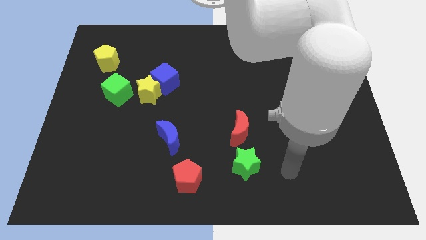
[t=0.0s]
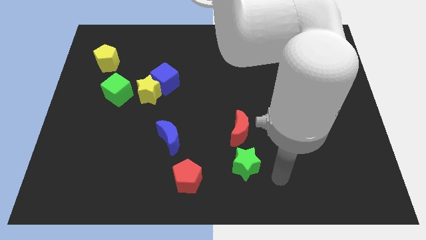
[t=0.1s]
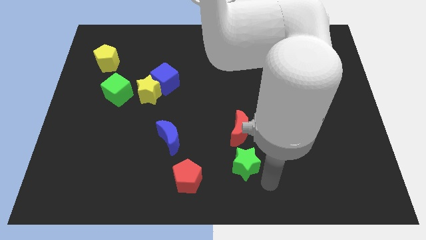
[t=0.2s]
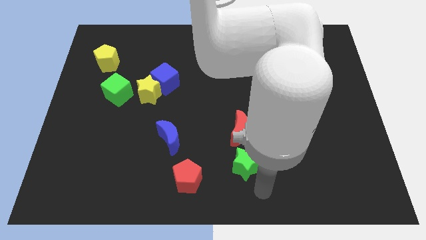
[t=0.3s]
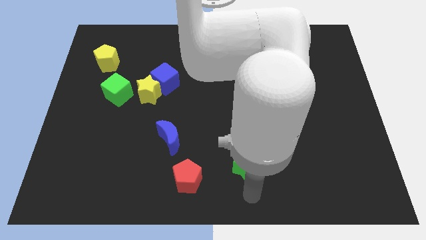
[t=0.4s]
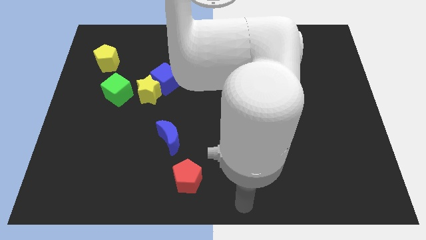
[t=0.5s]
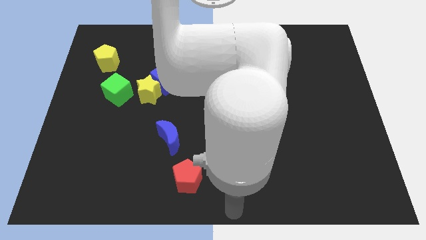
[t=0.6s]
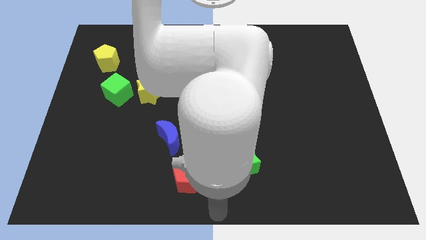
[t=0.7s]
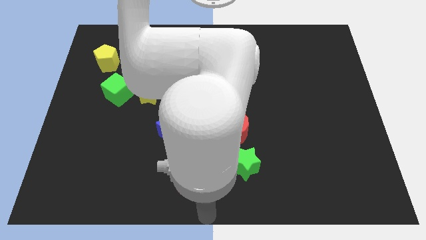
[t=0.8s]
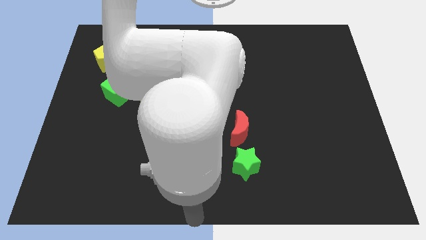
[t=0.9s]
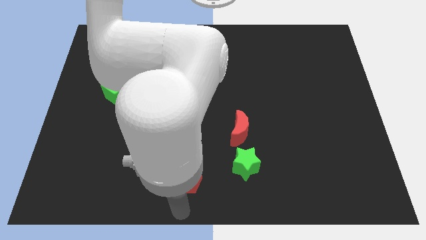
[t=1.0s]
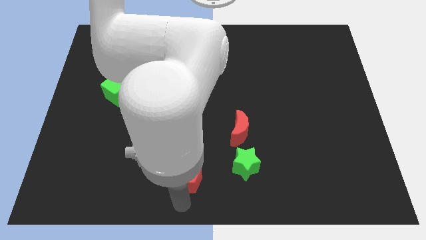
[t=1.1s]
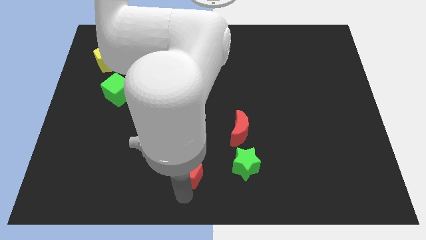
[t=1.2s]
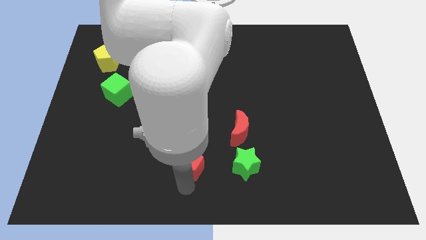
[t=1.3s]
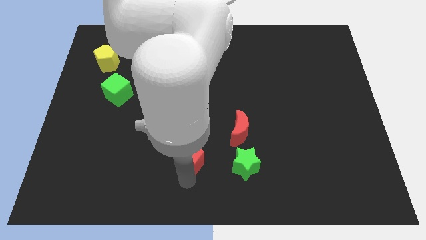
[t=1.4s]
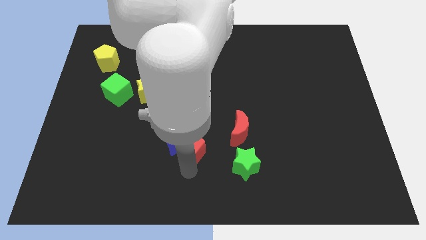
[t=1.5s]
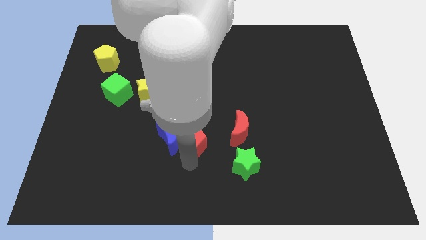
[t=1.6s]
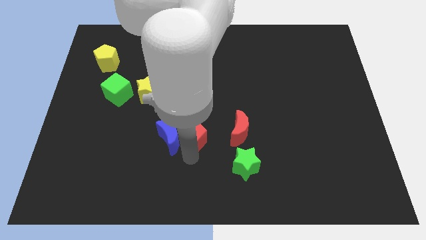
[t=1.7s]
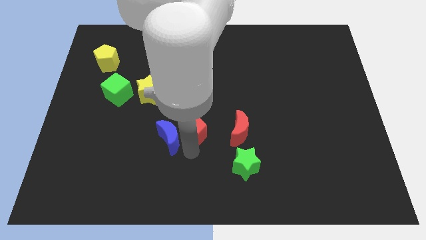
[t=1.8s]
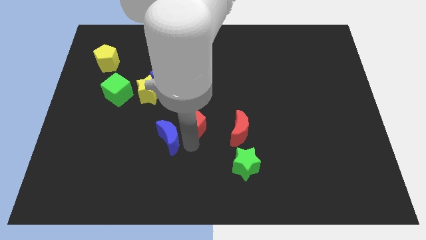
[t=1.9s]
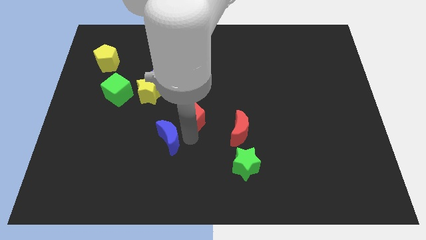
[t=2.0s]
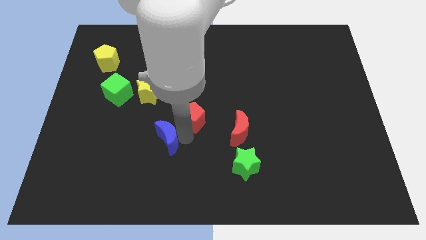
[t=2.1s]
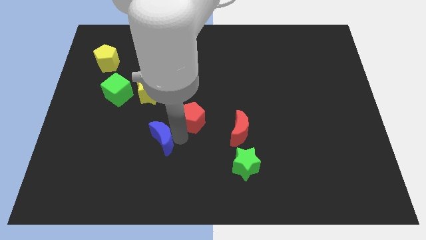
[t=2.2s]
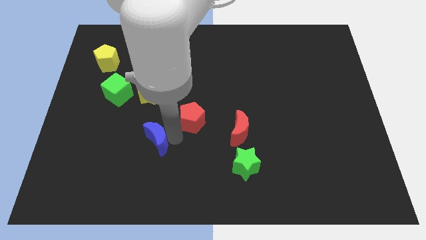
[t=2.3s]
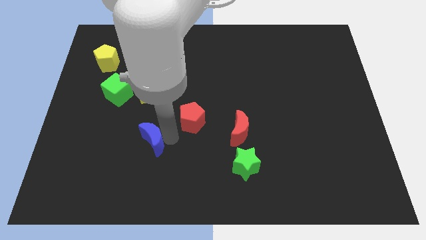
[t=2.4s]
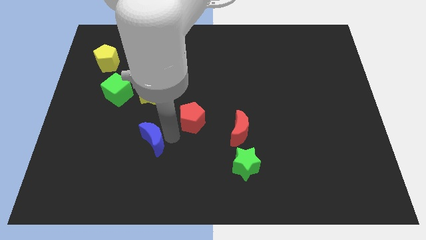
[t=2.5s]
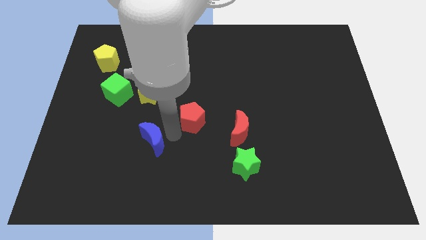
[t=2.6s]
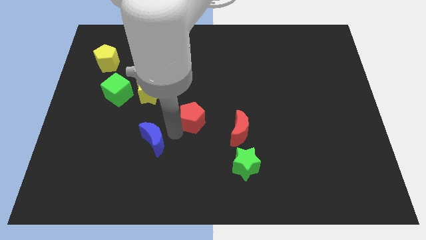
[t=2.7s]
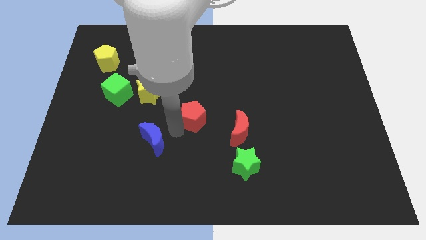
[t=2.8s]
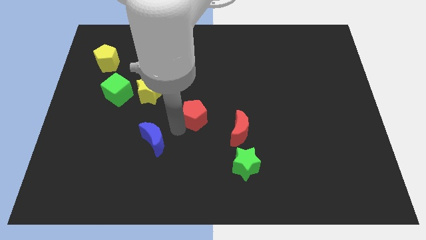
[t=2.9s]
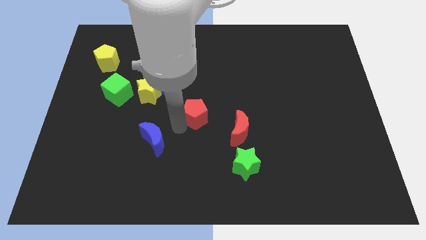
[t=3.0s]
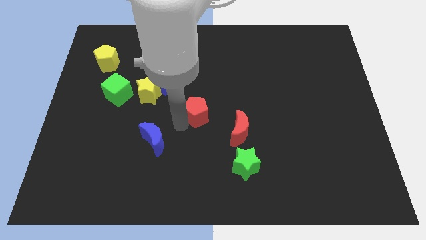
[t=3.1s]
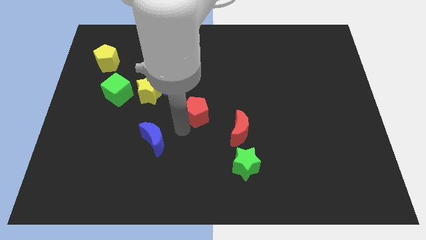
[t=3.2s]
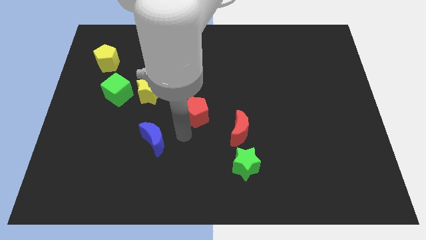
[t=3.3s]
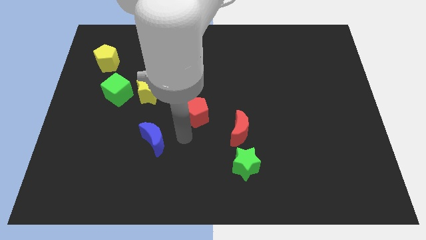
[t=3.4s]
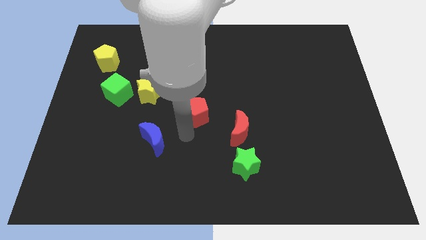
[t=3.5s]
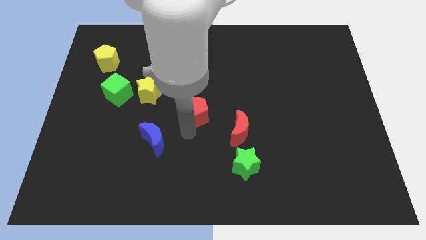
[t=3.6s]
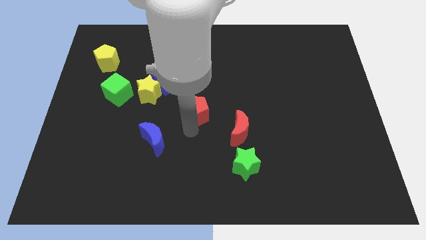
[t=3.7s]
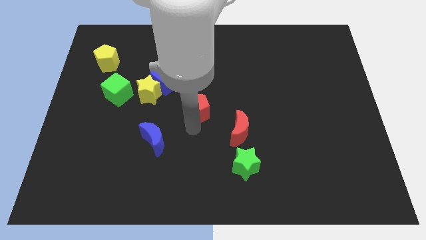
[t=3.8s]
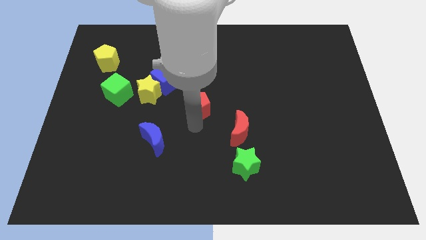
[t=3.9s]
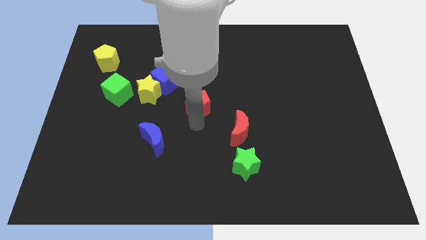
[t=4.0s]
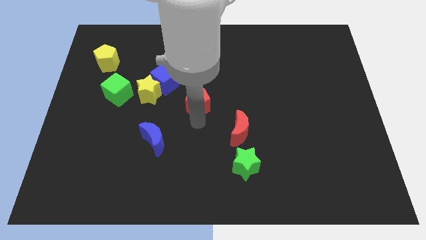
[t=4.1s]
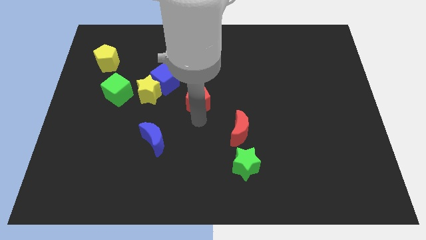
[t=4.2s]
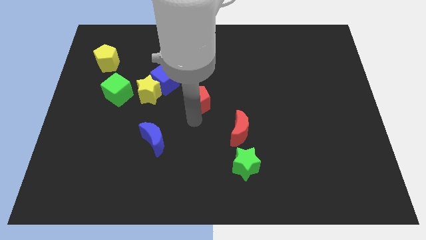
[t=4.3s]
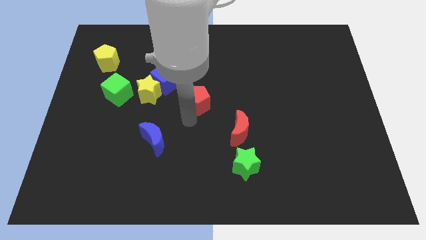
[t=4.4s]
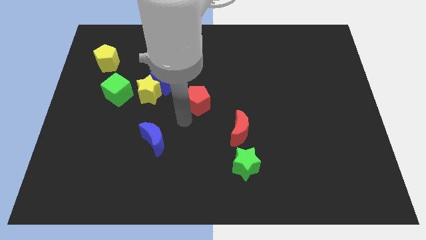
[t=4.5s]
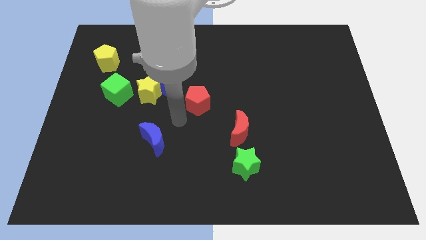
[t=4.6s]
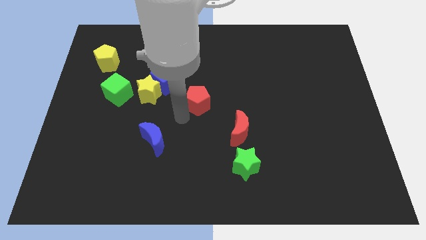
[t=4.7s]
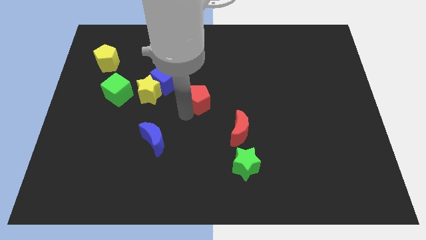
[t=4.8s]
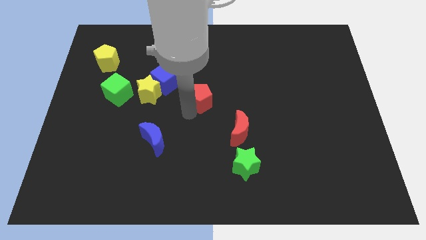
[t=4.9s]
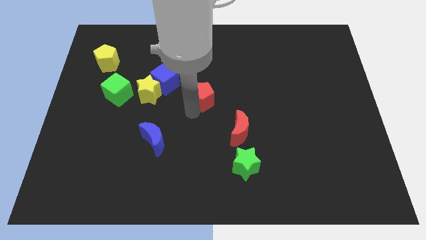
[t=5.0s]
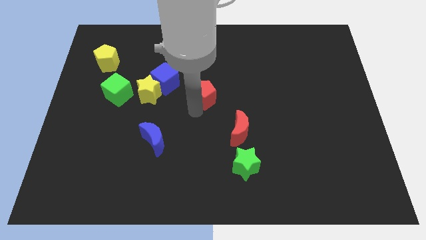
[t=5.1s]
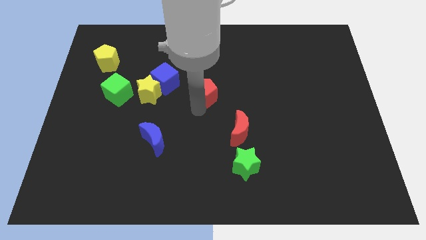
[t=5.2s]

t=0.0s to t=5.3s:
slide the red pentagon just right of the blue cube

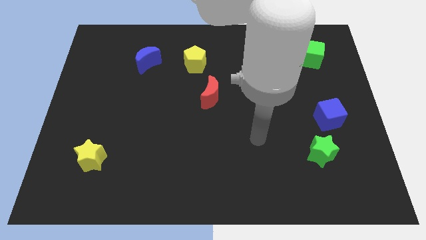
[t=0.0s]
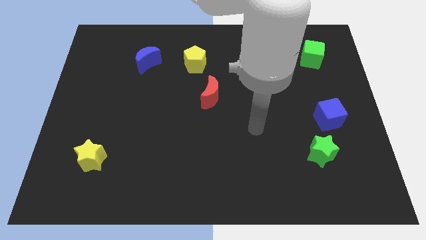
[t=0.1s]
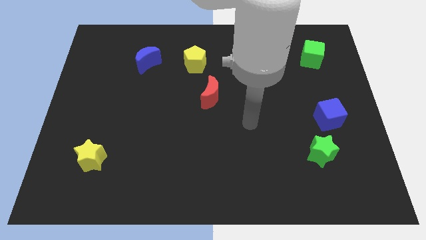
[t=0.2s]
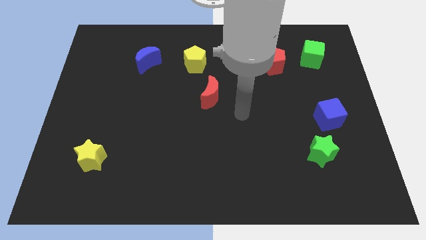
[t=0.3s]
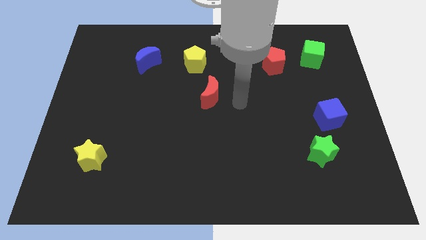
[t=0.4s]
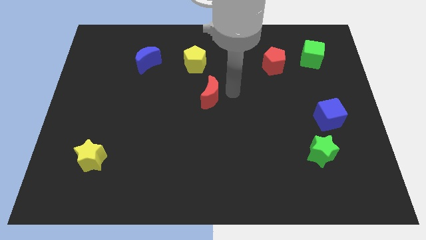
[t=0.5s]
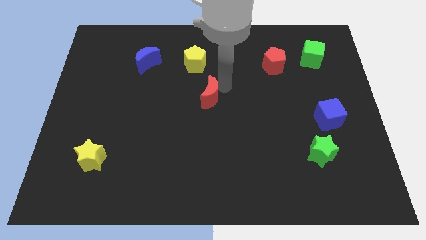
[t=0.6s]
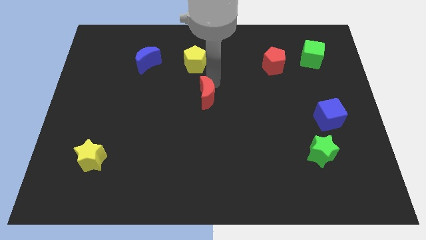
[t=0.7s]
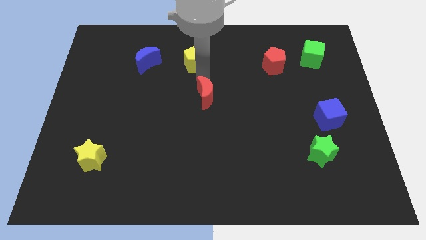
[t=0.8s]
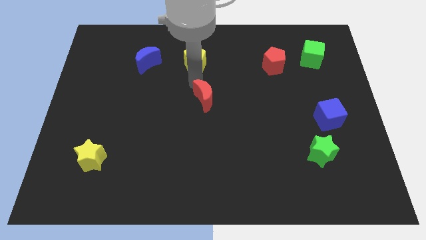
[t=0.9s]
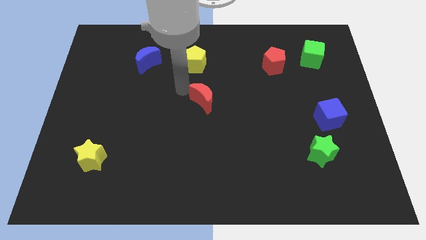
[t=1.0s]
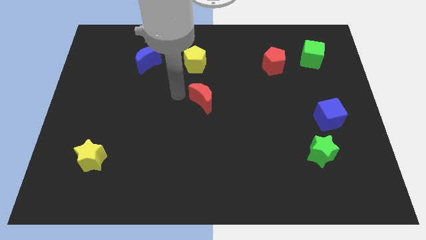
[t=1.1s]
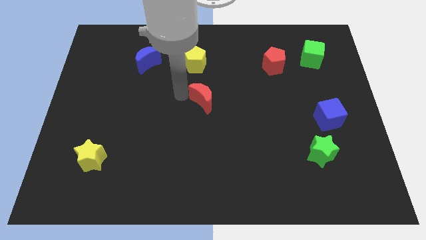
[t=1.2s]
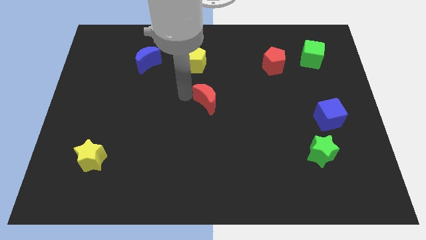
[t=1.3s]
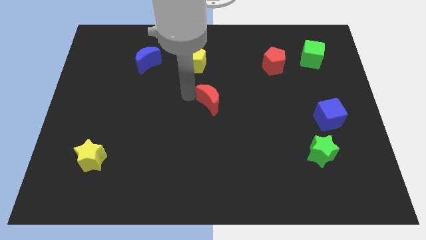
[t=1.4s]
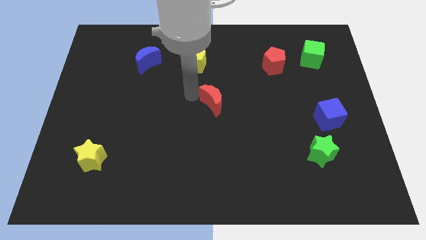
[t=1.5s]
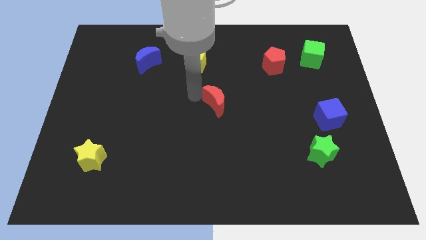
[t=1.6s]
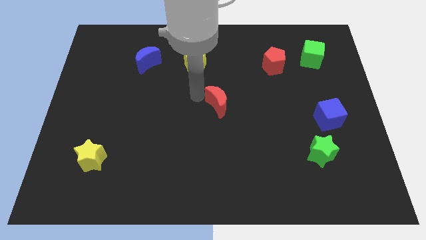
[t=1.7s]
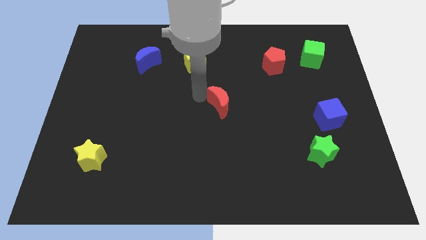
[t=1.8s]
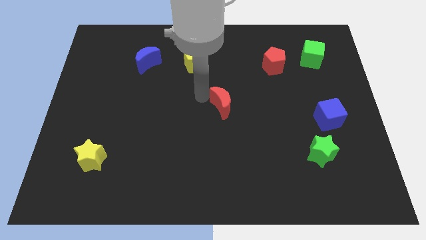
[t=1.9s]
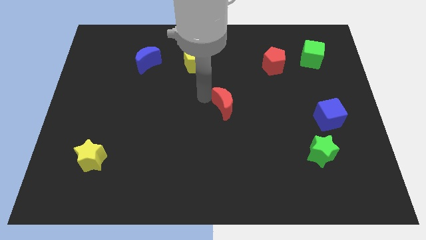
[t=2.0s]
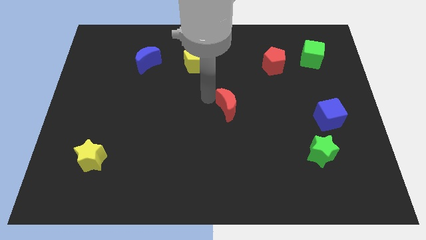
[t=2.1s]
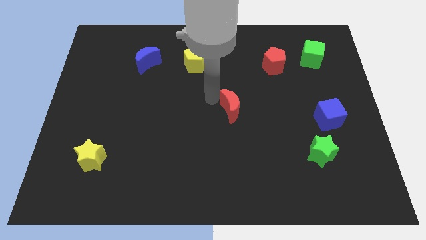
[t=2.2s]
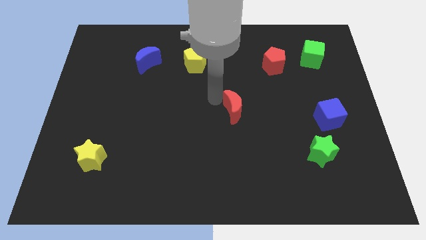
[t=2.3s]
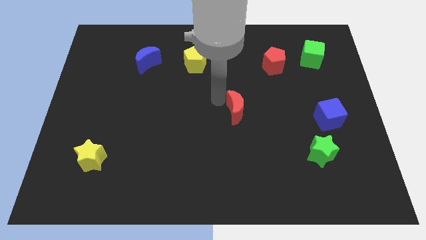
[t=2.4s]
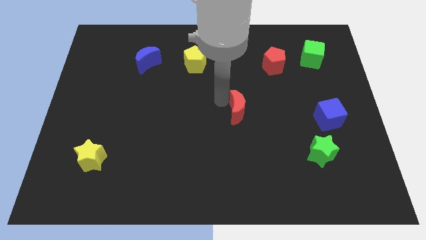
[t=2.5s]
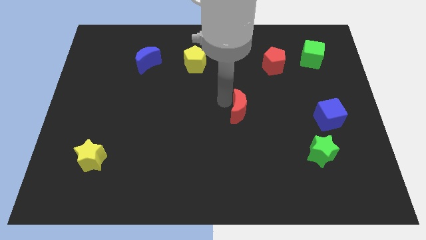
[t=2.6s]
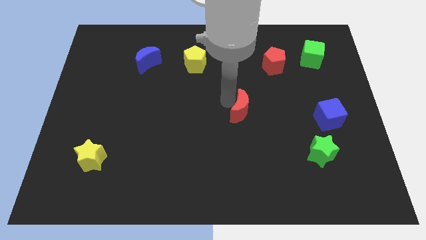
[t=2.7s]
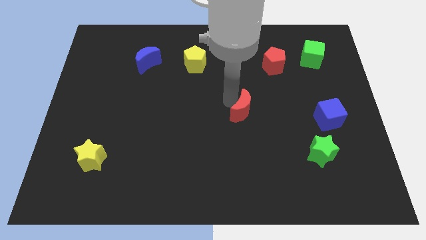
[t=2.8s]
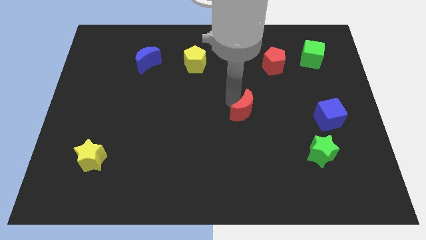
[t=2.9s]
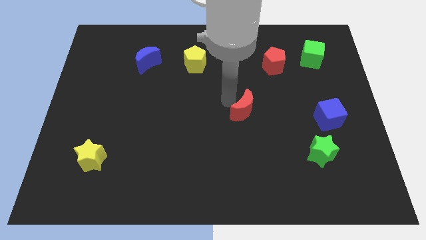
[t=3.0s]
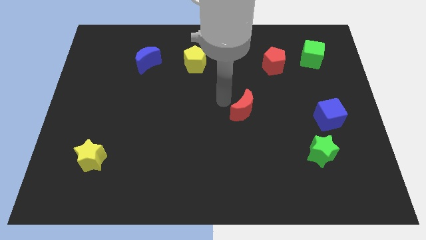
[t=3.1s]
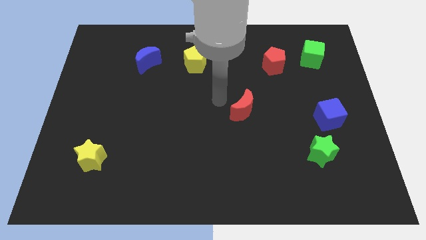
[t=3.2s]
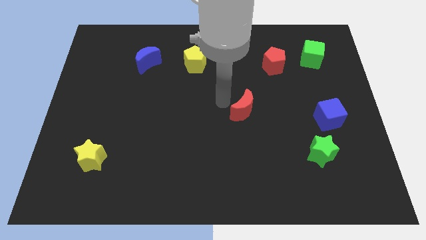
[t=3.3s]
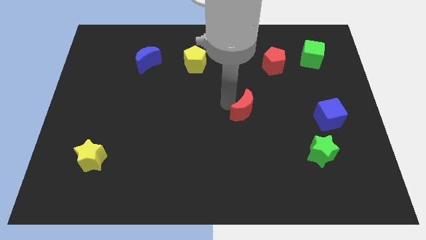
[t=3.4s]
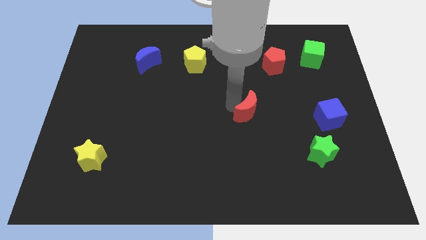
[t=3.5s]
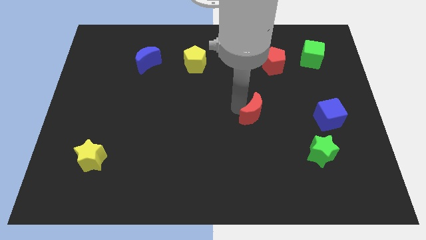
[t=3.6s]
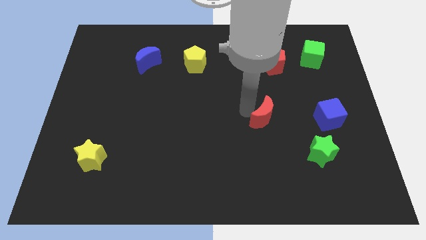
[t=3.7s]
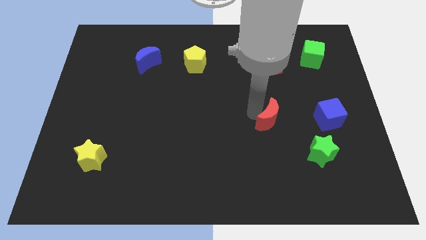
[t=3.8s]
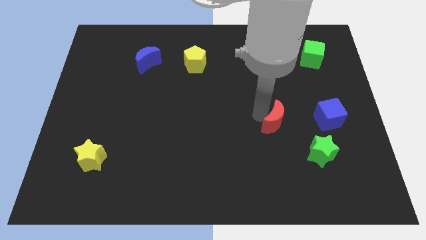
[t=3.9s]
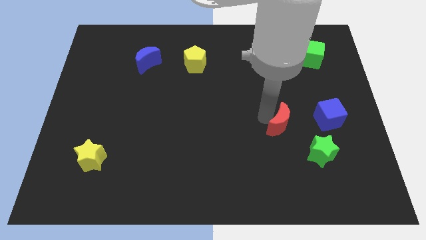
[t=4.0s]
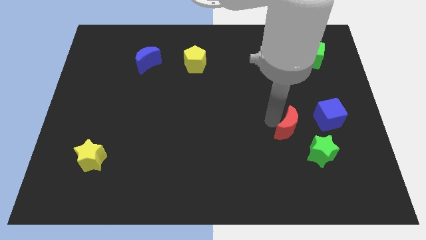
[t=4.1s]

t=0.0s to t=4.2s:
slide the red moon to the bottom left of the blue cube
